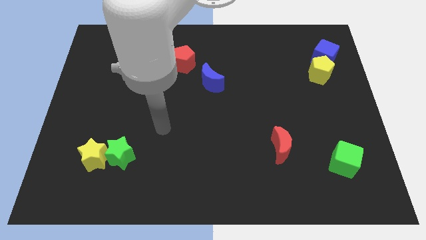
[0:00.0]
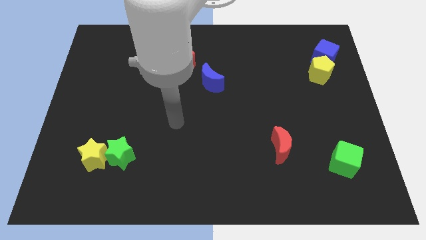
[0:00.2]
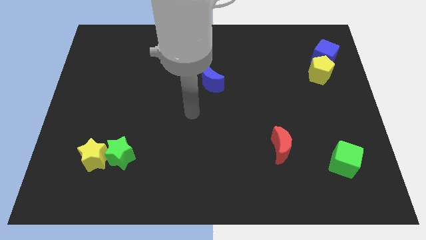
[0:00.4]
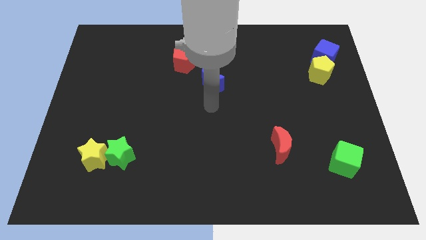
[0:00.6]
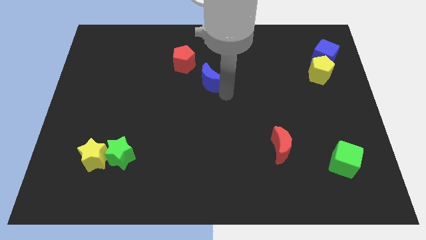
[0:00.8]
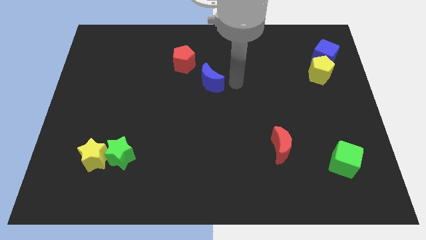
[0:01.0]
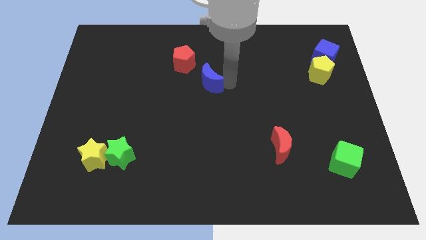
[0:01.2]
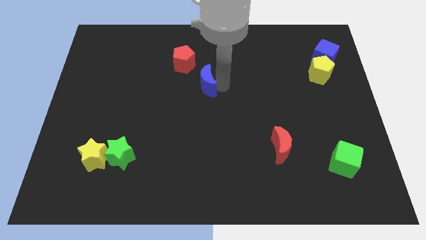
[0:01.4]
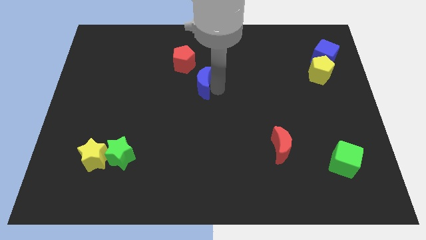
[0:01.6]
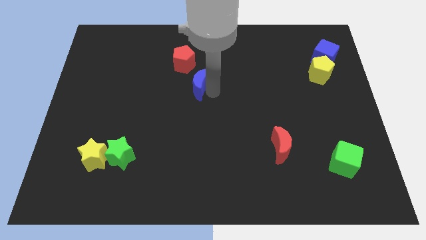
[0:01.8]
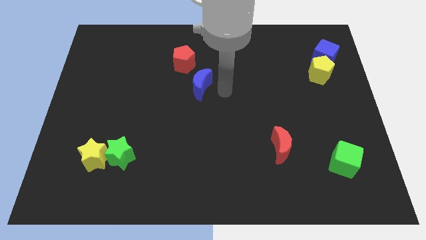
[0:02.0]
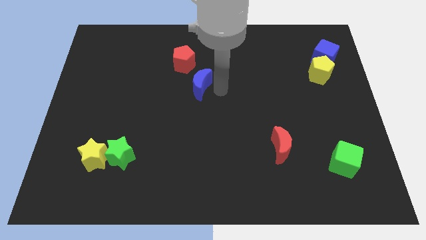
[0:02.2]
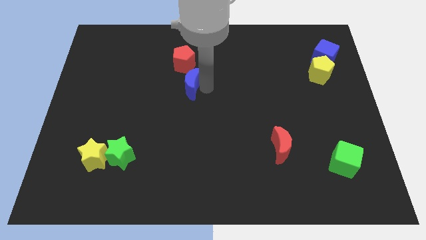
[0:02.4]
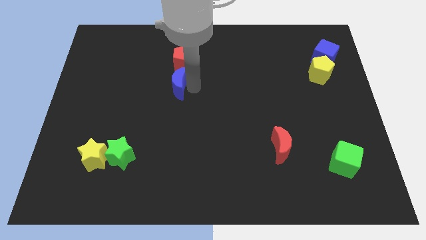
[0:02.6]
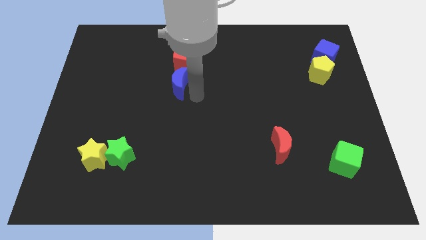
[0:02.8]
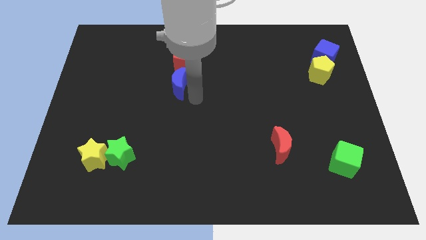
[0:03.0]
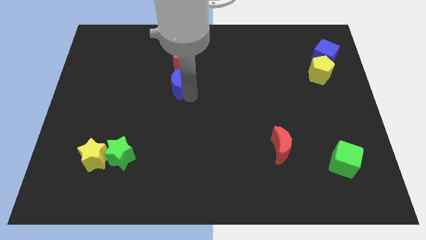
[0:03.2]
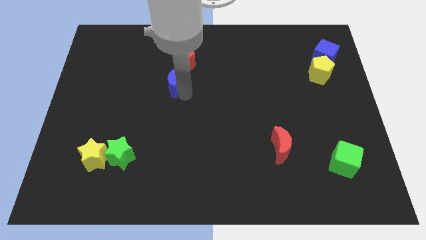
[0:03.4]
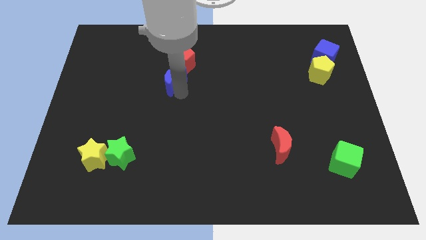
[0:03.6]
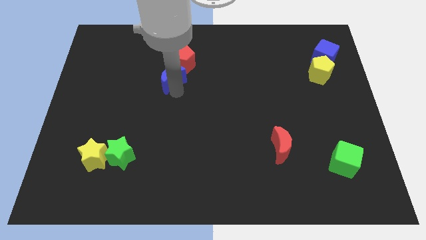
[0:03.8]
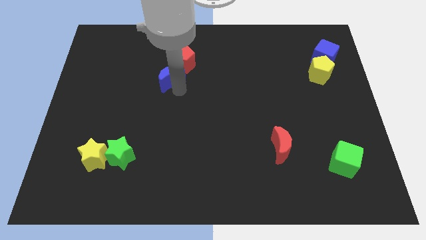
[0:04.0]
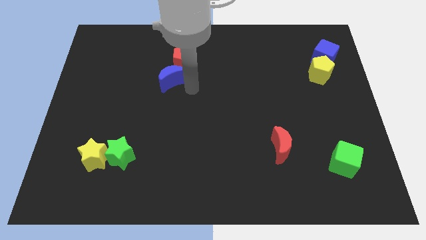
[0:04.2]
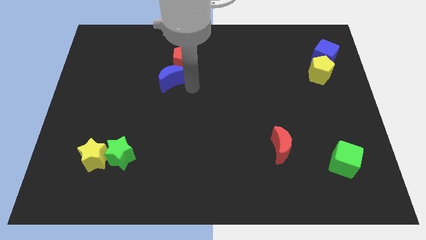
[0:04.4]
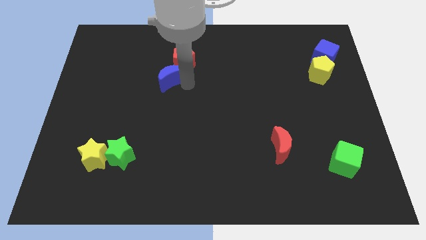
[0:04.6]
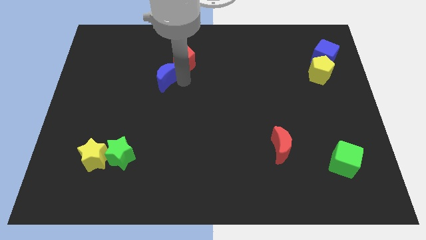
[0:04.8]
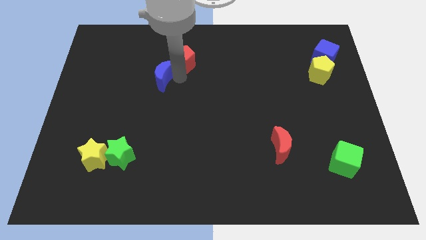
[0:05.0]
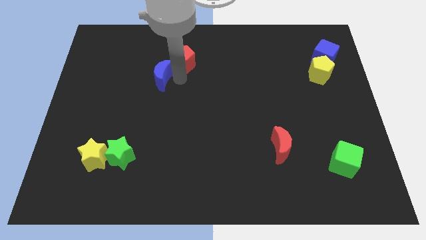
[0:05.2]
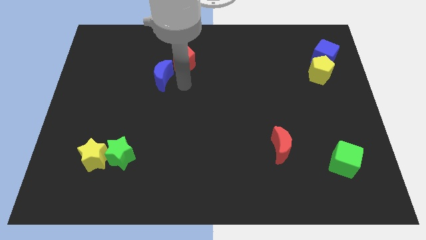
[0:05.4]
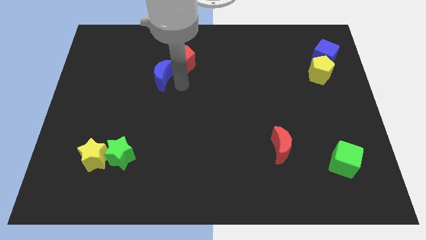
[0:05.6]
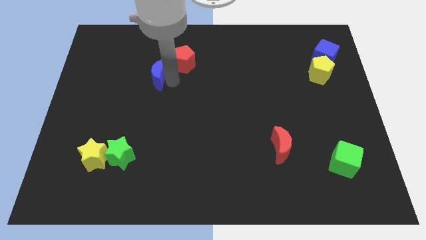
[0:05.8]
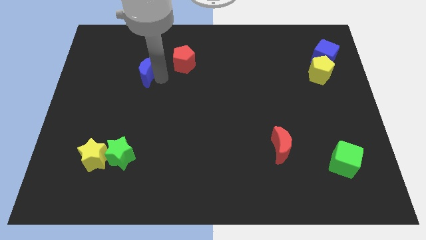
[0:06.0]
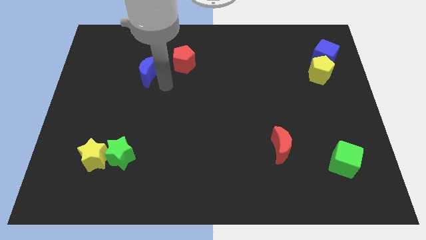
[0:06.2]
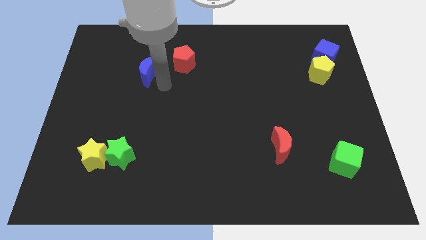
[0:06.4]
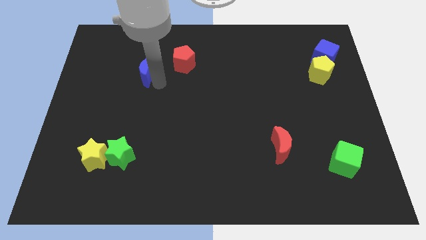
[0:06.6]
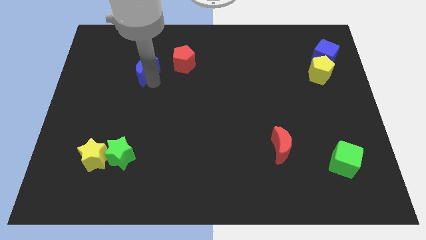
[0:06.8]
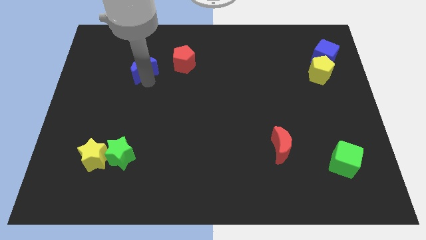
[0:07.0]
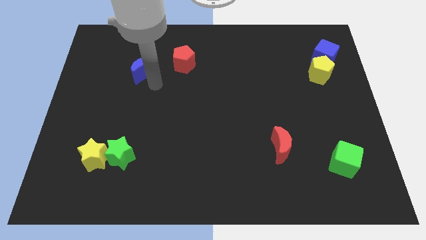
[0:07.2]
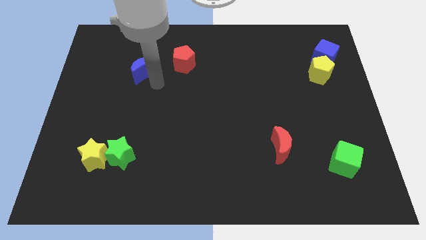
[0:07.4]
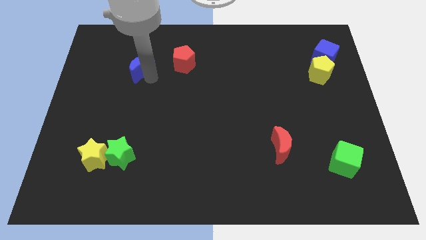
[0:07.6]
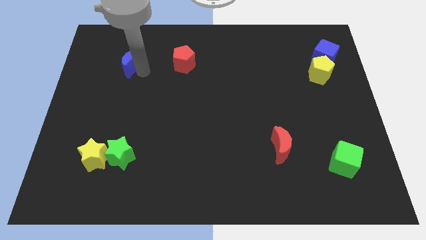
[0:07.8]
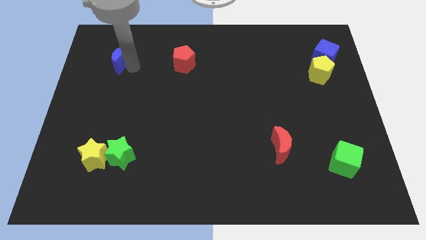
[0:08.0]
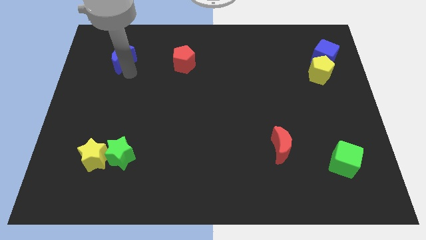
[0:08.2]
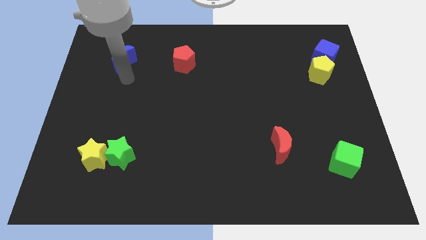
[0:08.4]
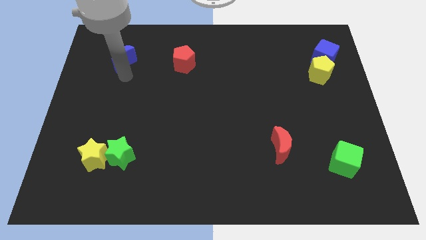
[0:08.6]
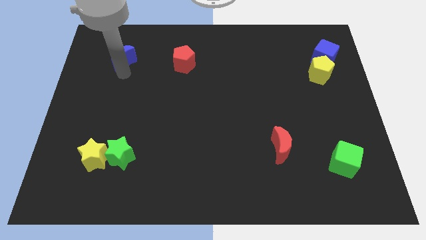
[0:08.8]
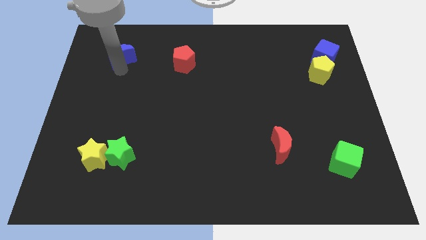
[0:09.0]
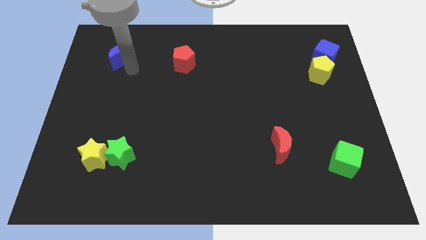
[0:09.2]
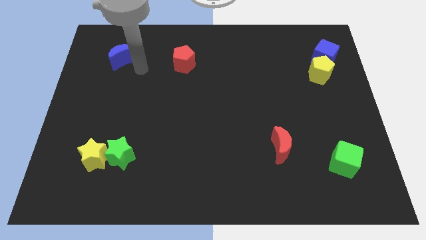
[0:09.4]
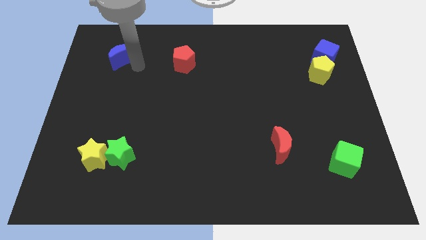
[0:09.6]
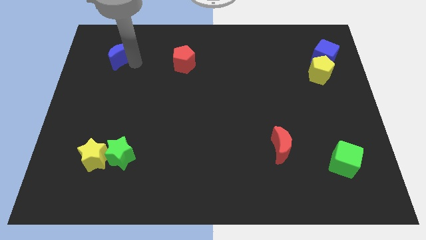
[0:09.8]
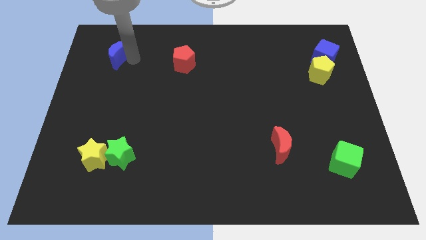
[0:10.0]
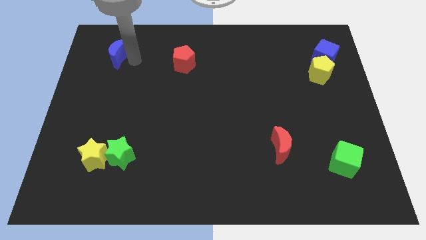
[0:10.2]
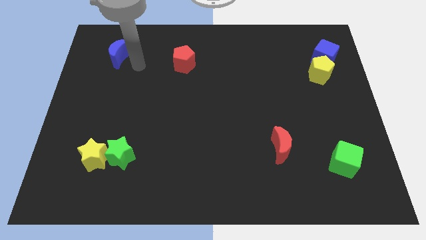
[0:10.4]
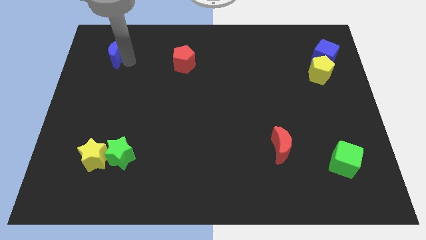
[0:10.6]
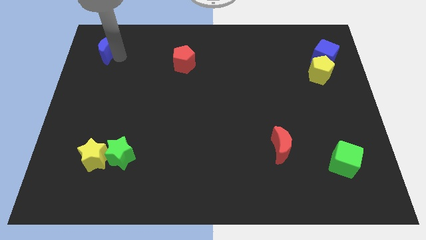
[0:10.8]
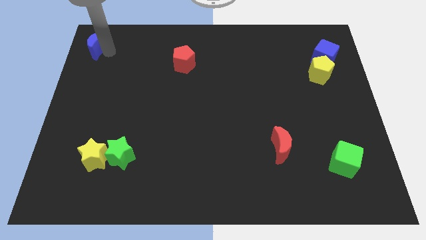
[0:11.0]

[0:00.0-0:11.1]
put the blue moon to the top left of the board

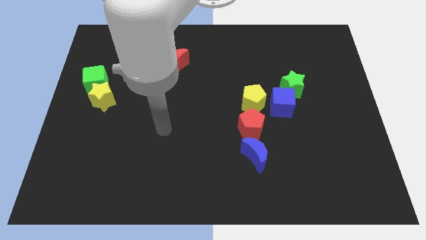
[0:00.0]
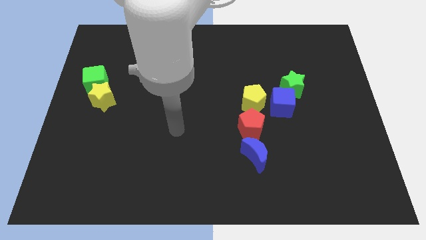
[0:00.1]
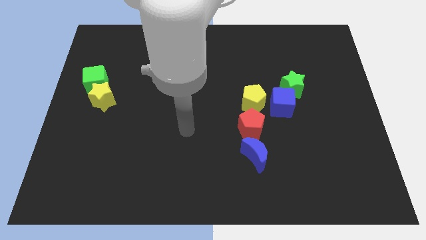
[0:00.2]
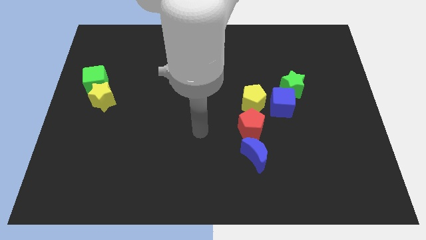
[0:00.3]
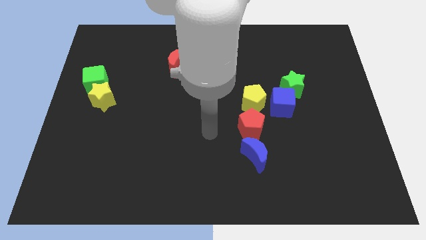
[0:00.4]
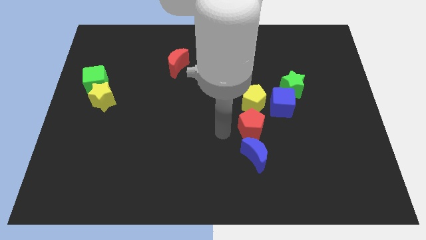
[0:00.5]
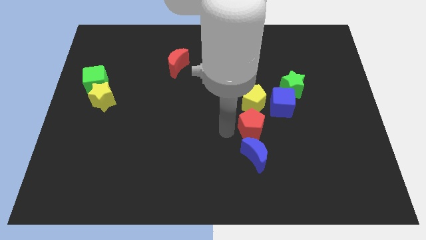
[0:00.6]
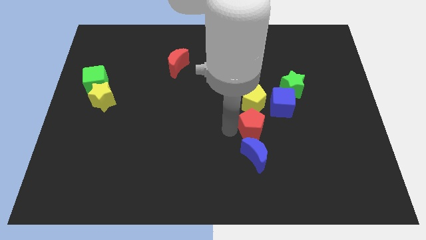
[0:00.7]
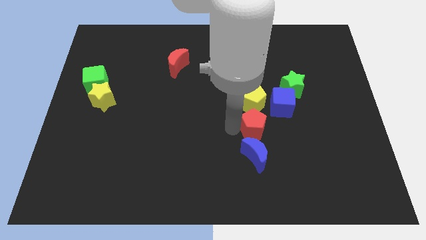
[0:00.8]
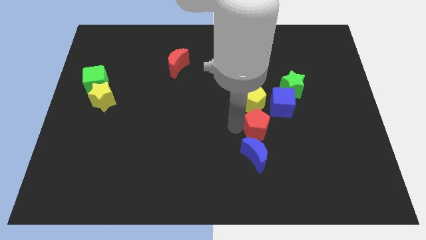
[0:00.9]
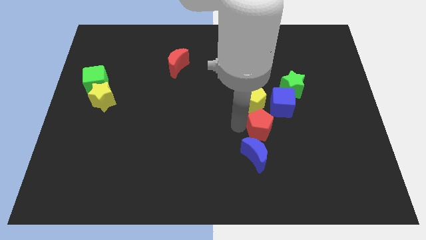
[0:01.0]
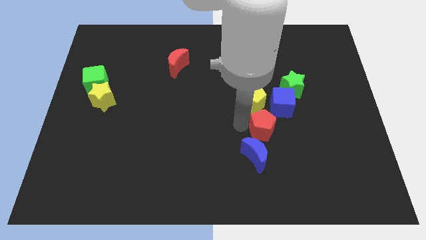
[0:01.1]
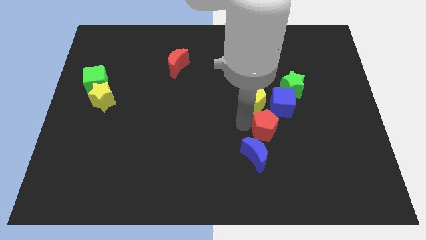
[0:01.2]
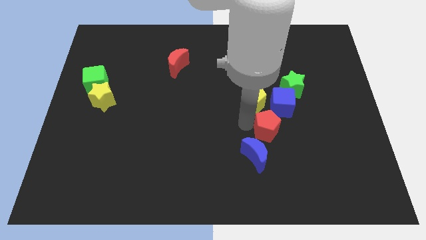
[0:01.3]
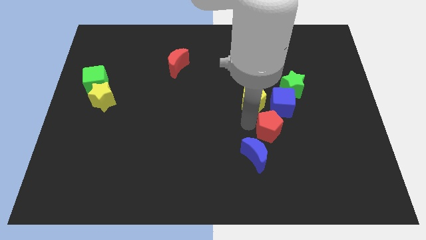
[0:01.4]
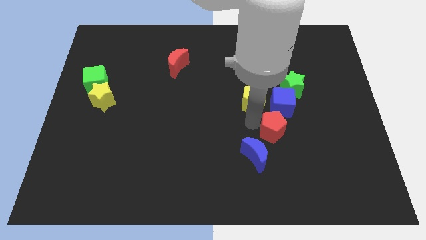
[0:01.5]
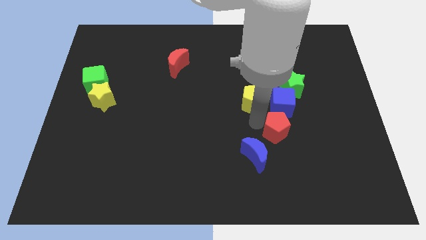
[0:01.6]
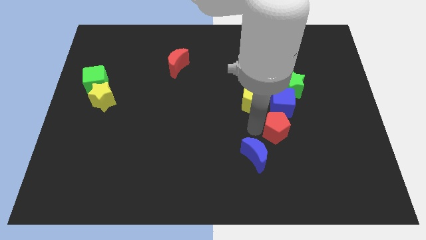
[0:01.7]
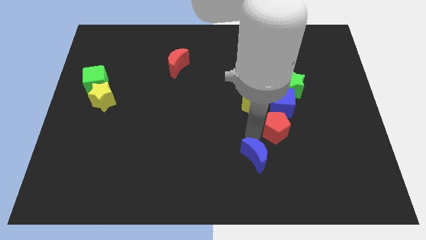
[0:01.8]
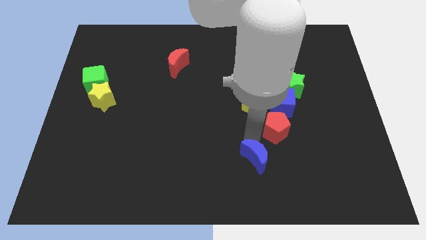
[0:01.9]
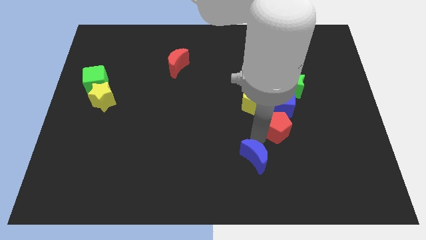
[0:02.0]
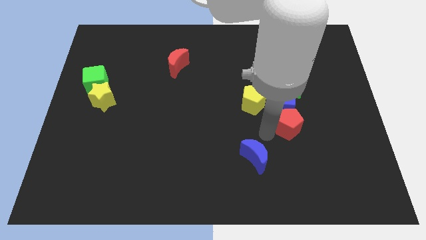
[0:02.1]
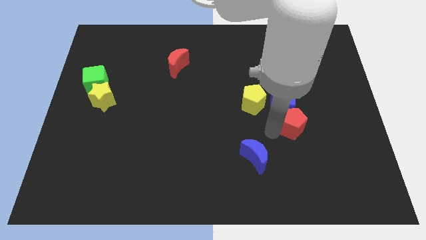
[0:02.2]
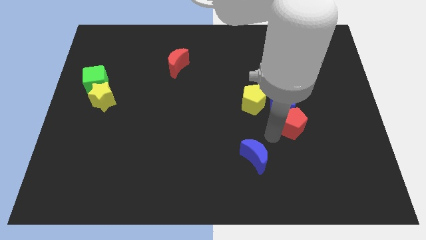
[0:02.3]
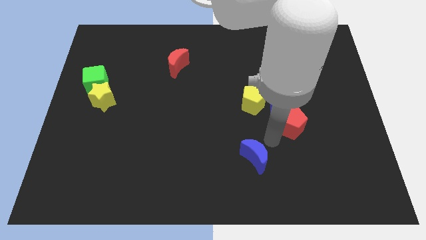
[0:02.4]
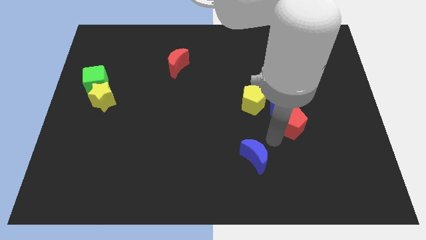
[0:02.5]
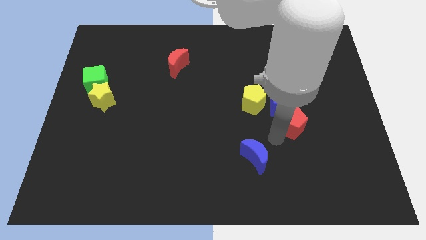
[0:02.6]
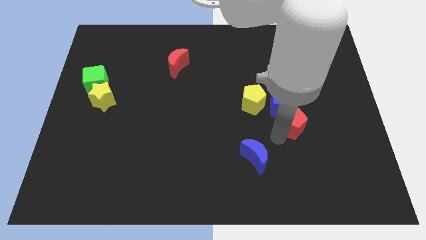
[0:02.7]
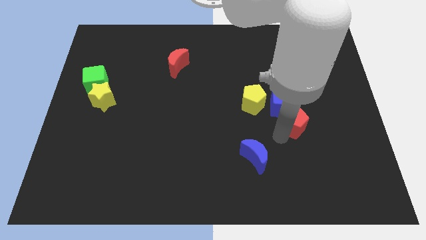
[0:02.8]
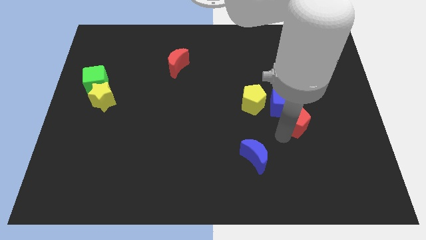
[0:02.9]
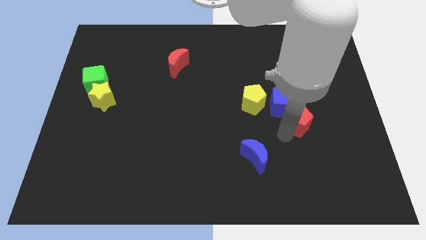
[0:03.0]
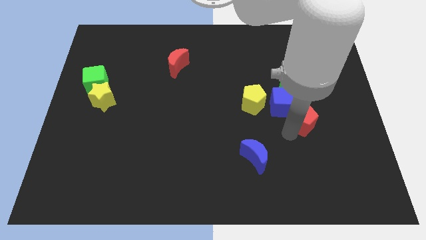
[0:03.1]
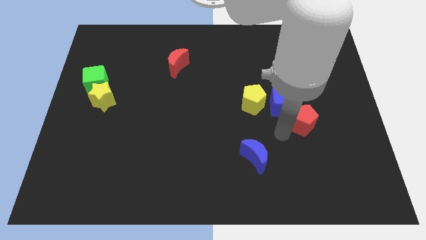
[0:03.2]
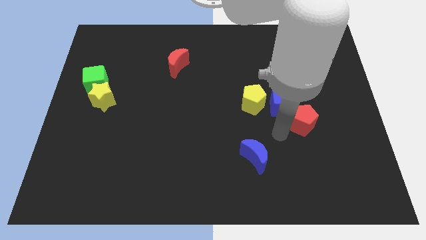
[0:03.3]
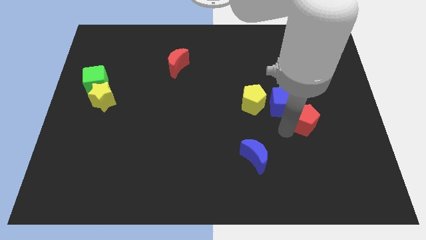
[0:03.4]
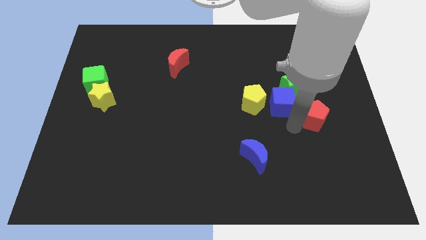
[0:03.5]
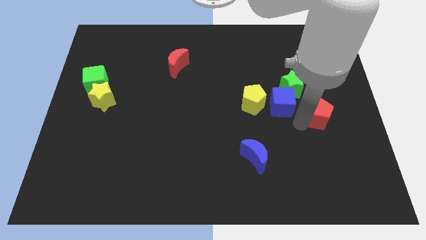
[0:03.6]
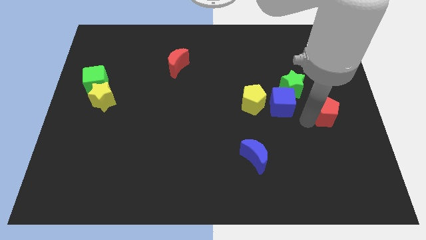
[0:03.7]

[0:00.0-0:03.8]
push the red pentagon to the center right
